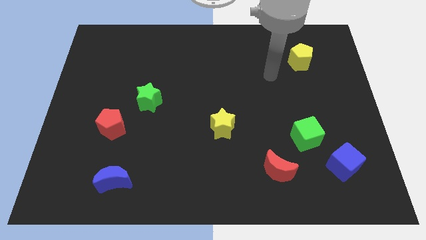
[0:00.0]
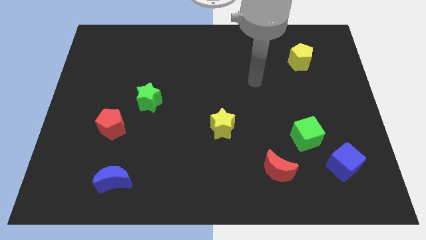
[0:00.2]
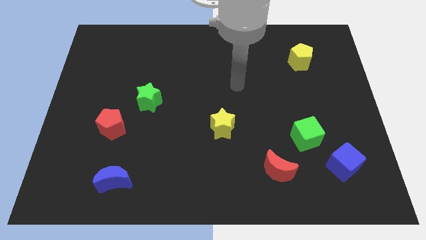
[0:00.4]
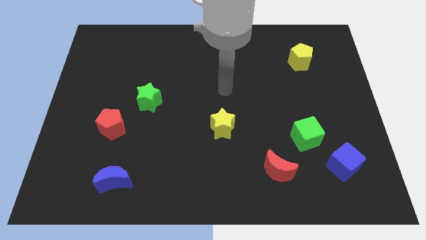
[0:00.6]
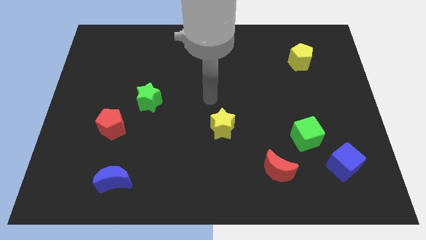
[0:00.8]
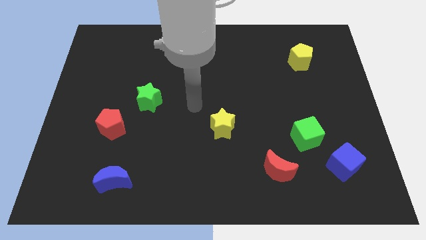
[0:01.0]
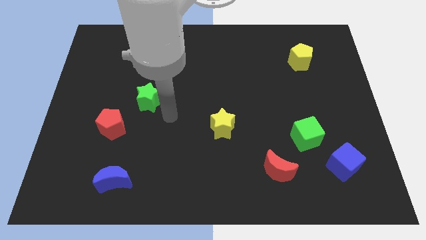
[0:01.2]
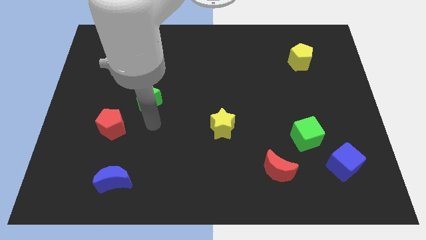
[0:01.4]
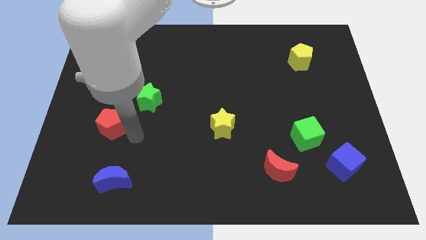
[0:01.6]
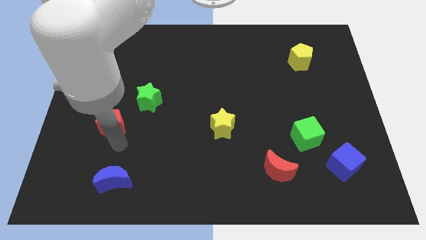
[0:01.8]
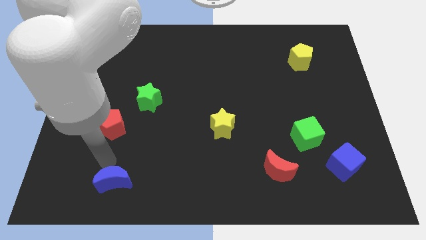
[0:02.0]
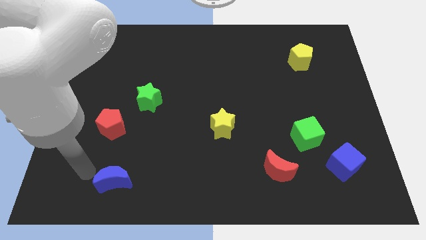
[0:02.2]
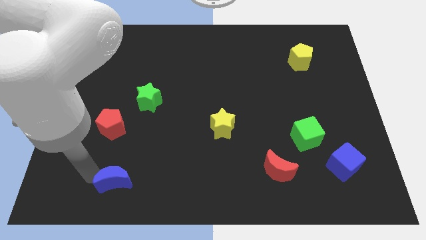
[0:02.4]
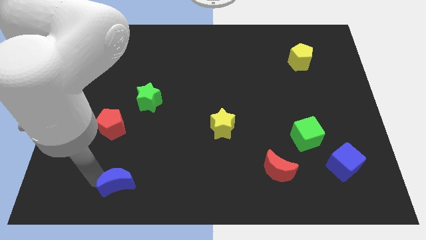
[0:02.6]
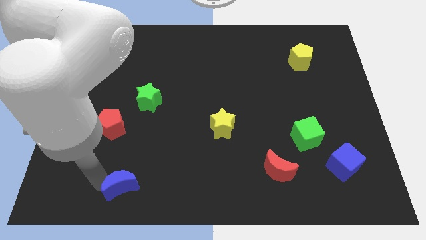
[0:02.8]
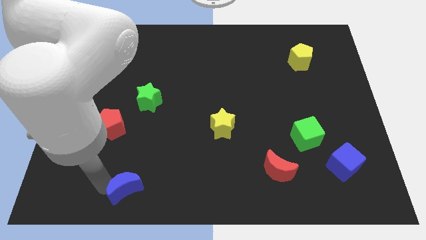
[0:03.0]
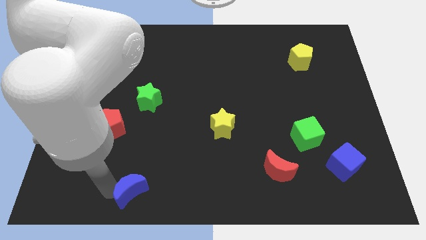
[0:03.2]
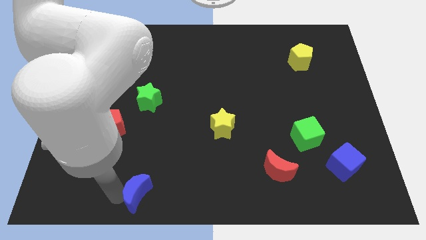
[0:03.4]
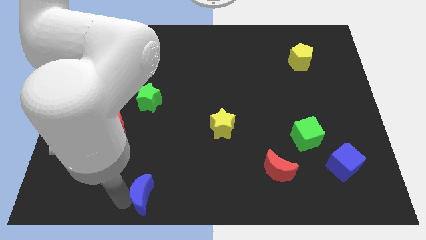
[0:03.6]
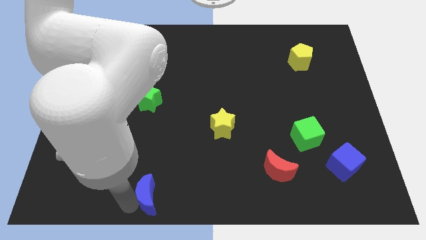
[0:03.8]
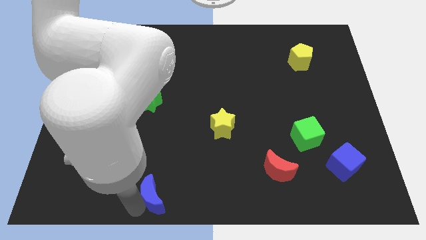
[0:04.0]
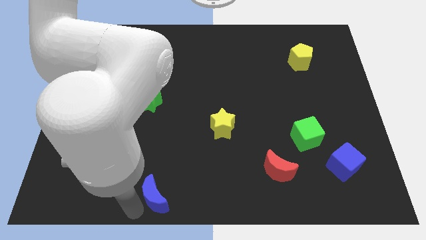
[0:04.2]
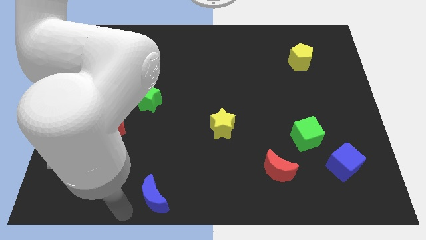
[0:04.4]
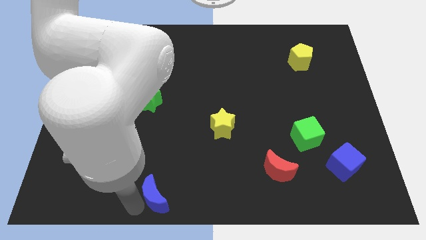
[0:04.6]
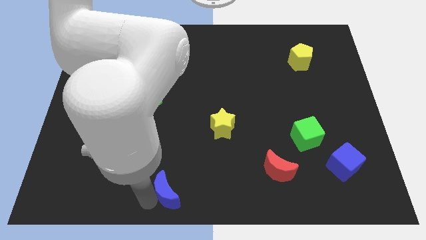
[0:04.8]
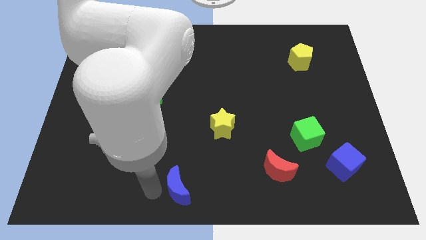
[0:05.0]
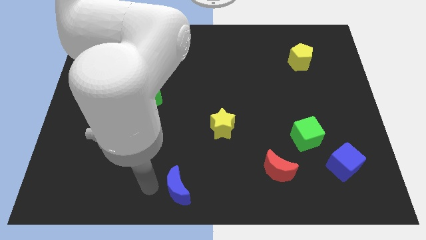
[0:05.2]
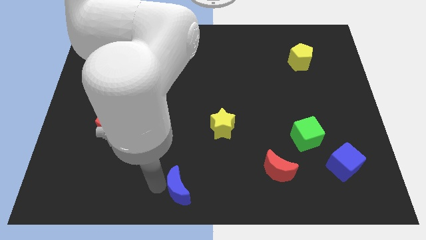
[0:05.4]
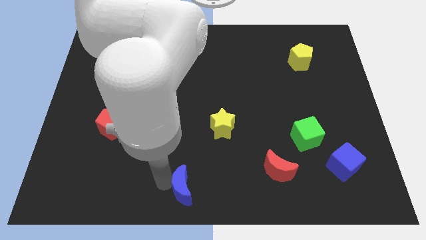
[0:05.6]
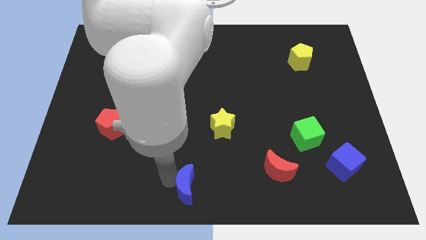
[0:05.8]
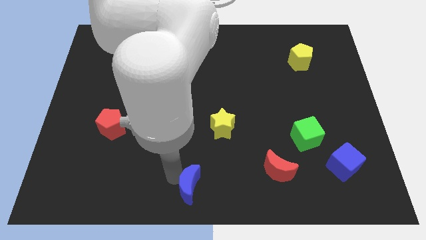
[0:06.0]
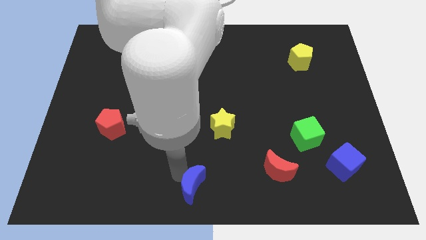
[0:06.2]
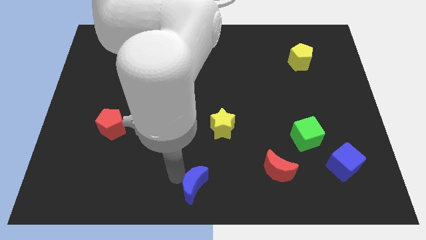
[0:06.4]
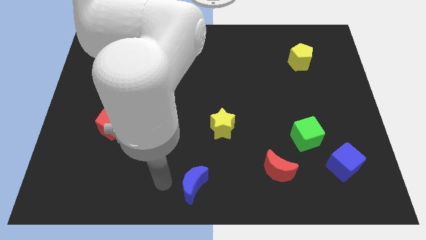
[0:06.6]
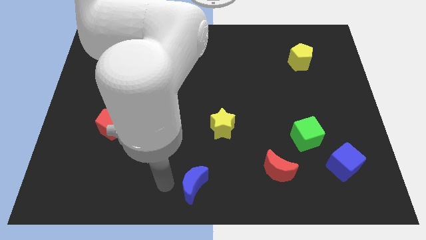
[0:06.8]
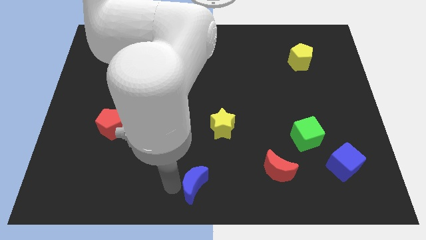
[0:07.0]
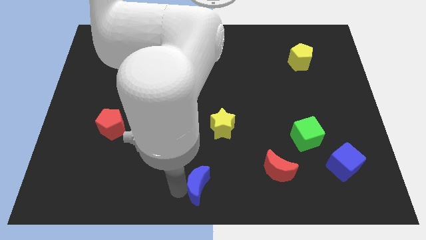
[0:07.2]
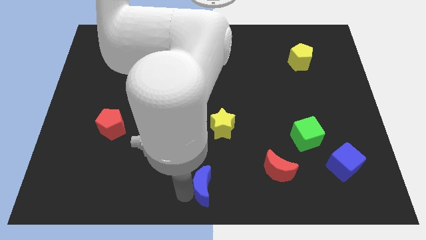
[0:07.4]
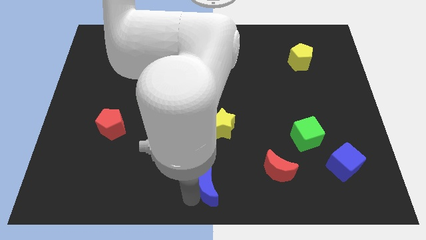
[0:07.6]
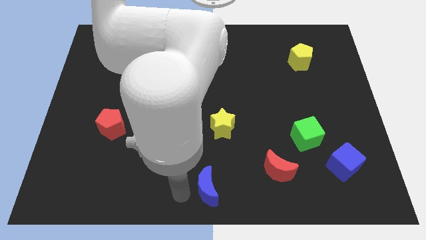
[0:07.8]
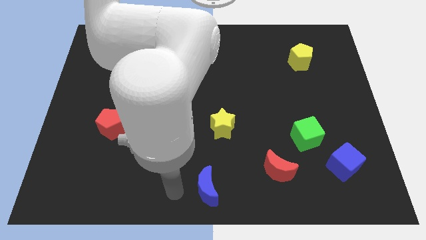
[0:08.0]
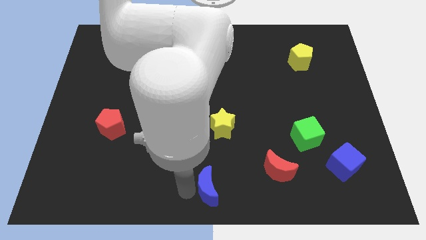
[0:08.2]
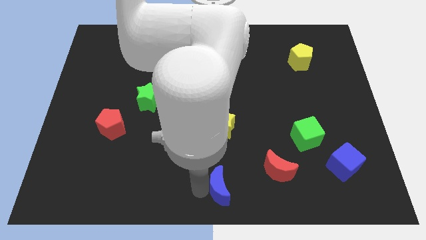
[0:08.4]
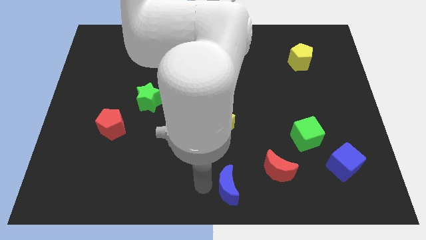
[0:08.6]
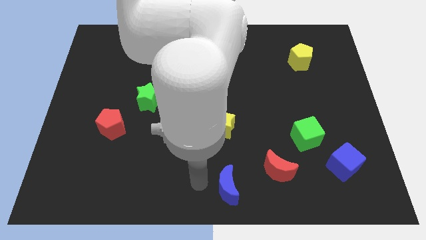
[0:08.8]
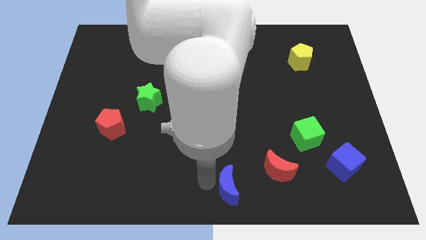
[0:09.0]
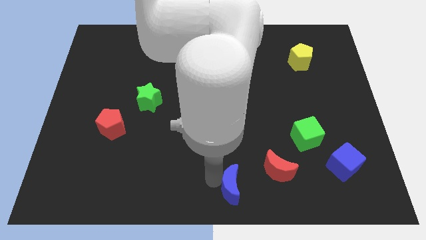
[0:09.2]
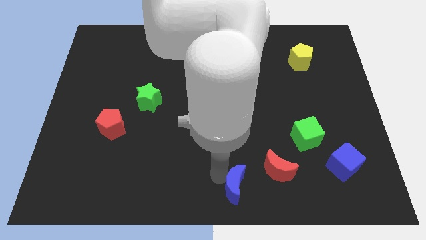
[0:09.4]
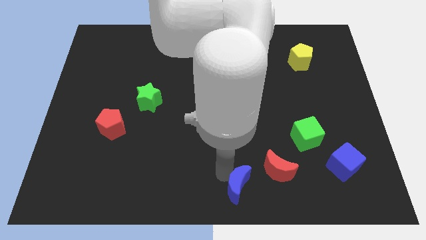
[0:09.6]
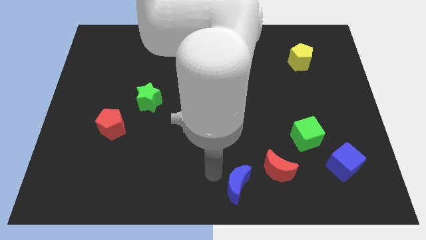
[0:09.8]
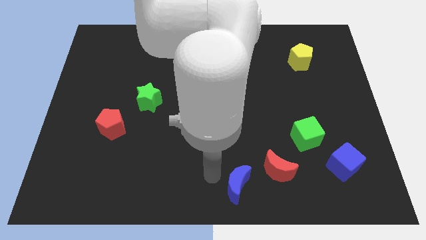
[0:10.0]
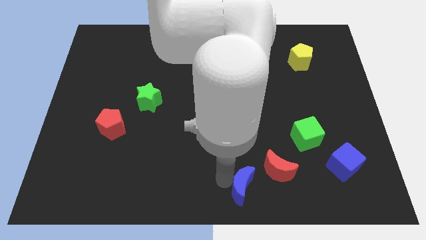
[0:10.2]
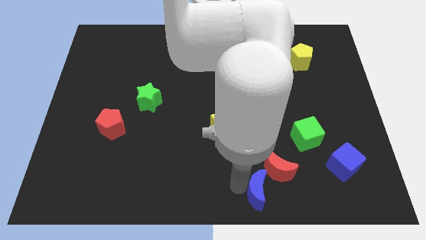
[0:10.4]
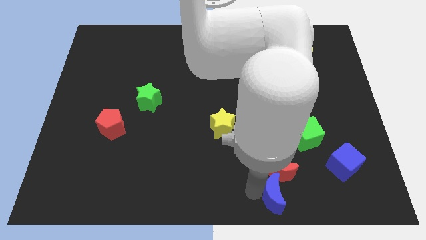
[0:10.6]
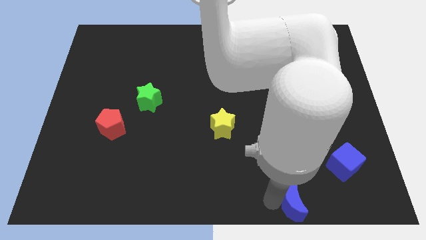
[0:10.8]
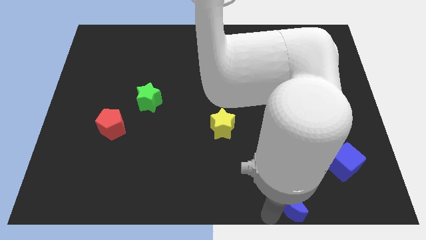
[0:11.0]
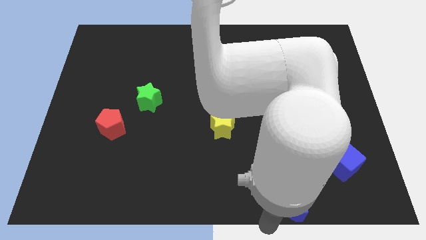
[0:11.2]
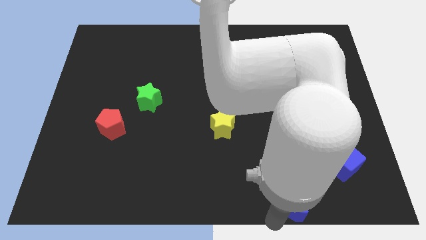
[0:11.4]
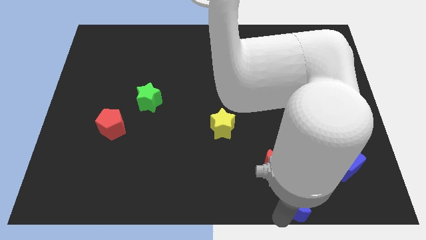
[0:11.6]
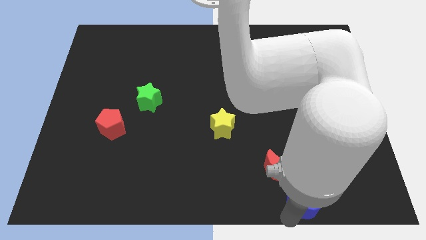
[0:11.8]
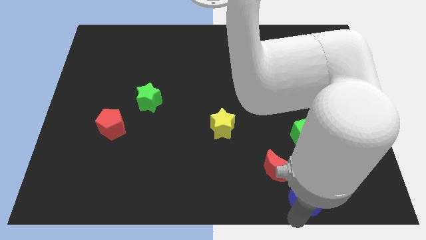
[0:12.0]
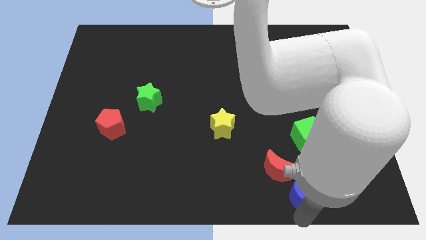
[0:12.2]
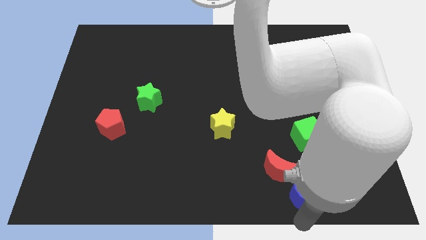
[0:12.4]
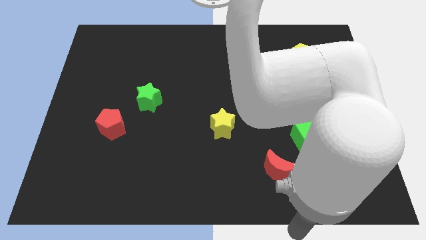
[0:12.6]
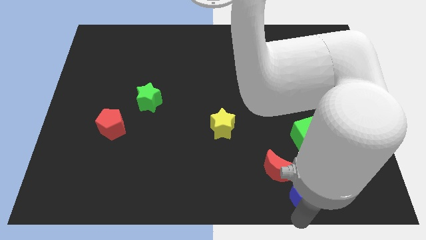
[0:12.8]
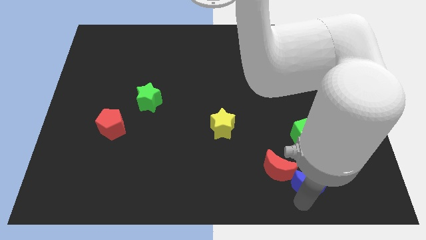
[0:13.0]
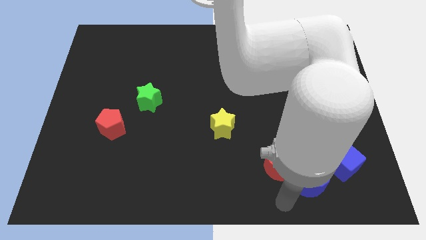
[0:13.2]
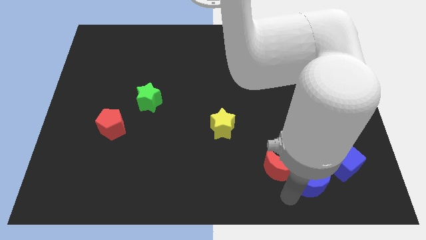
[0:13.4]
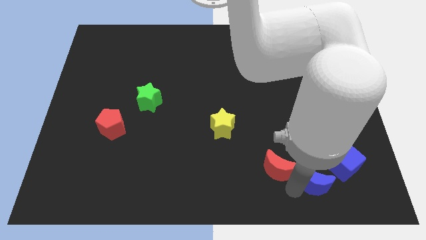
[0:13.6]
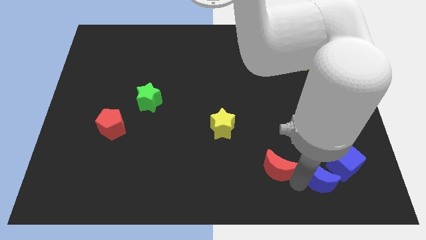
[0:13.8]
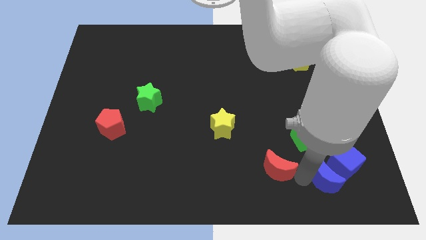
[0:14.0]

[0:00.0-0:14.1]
push the blue moon close to the blue cube
